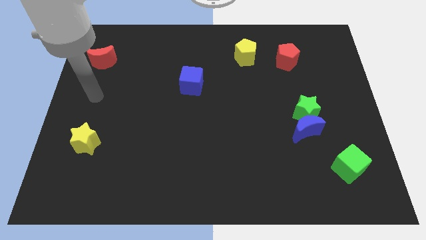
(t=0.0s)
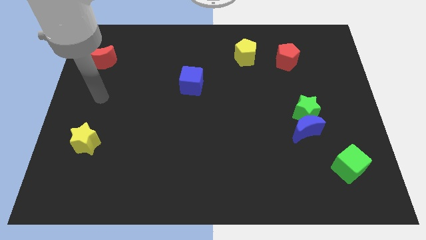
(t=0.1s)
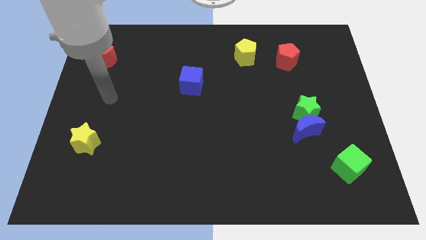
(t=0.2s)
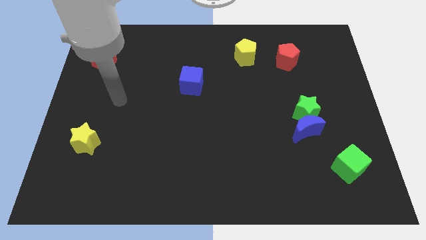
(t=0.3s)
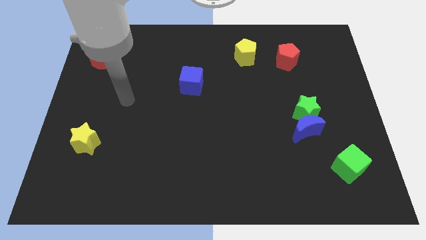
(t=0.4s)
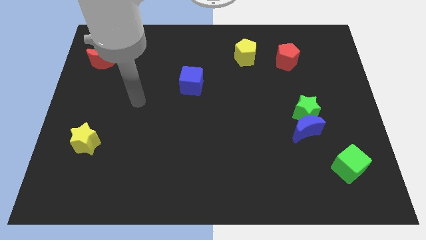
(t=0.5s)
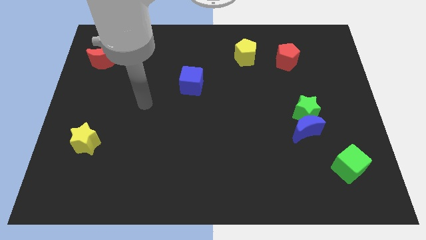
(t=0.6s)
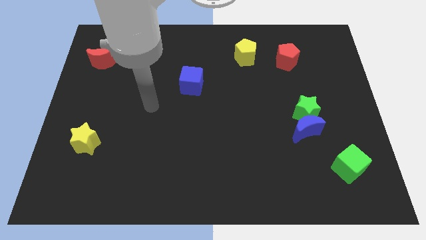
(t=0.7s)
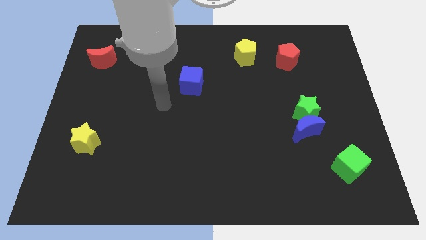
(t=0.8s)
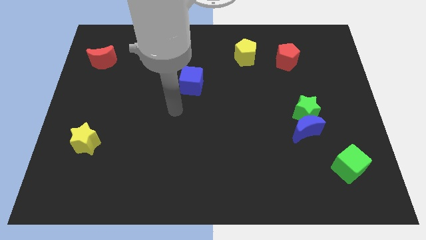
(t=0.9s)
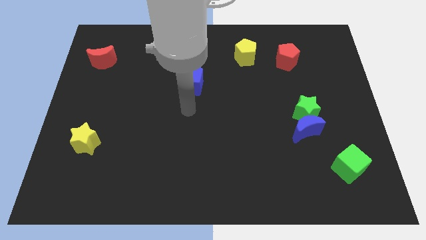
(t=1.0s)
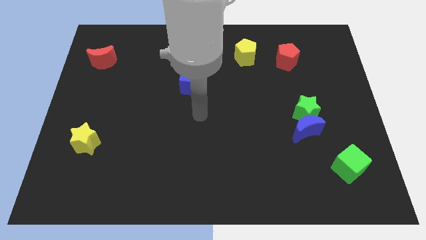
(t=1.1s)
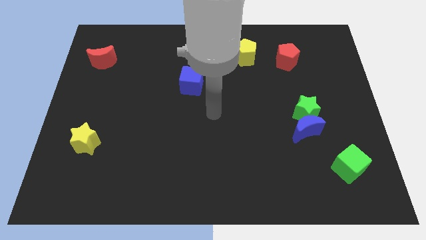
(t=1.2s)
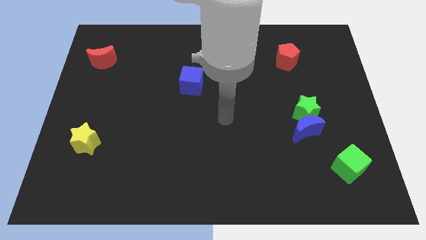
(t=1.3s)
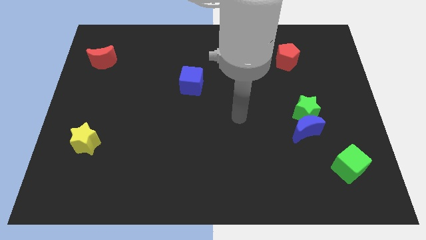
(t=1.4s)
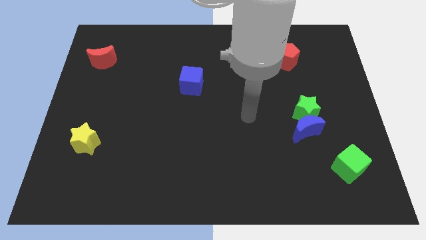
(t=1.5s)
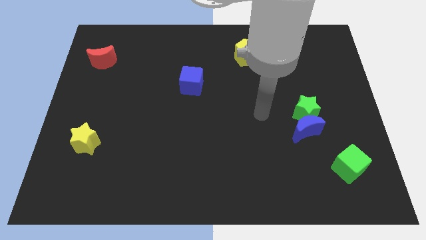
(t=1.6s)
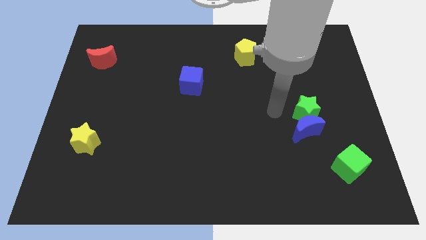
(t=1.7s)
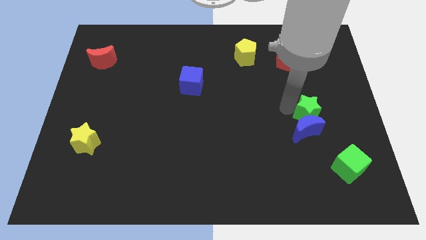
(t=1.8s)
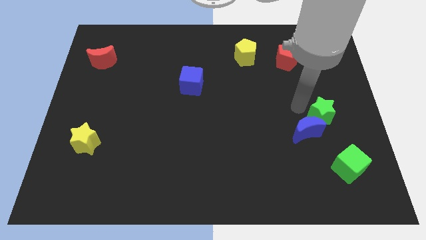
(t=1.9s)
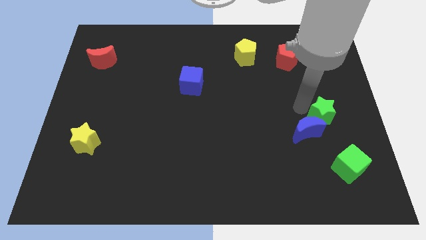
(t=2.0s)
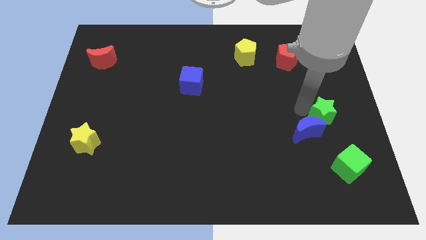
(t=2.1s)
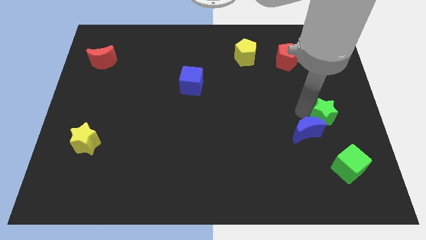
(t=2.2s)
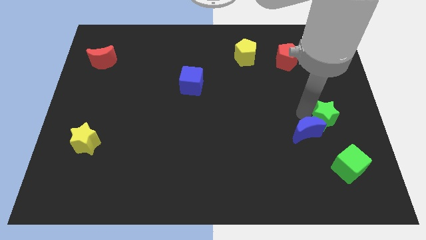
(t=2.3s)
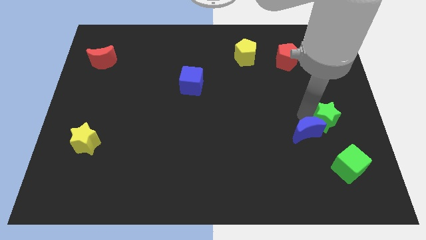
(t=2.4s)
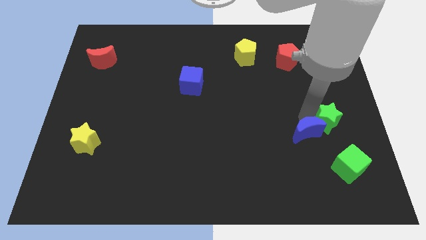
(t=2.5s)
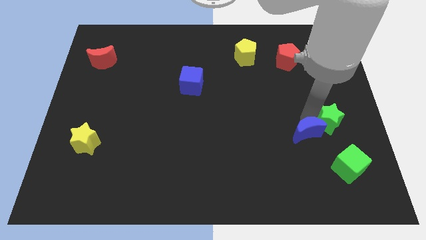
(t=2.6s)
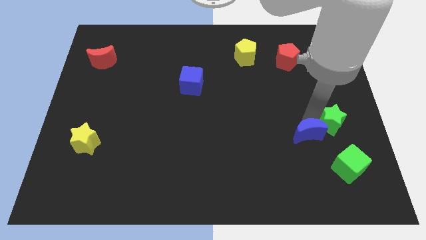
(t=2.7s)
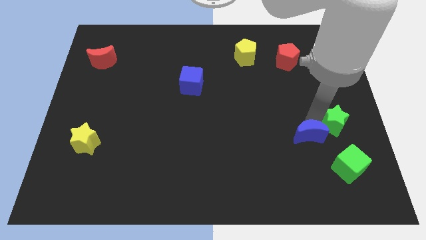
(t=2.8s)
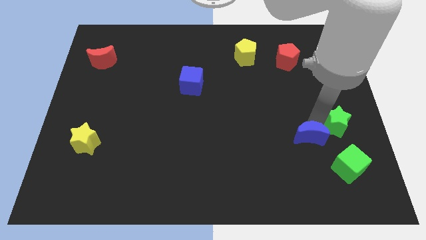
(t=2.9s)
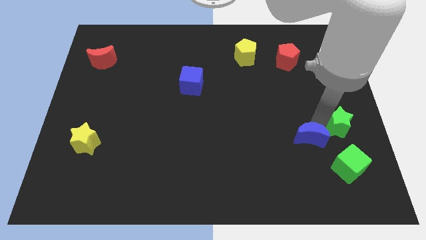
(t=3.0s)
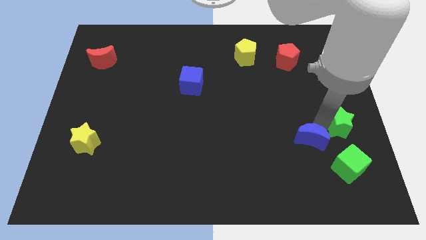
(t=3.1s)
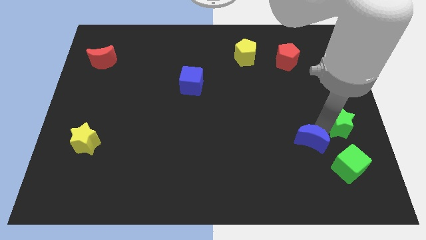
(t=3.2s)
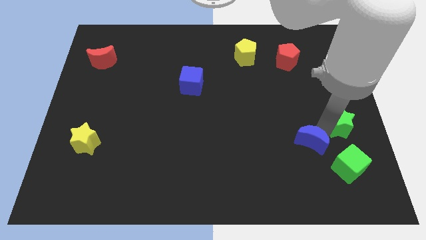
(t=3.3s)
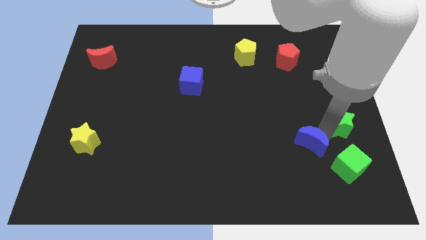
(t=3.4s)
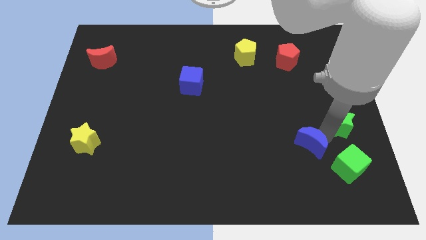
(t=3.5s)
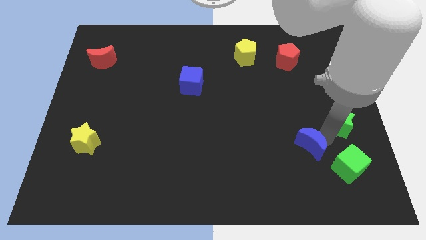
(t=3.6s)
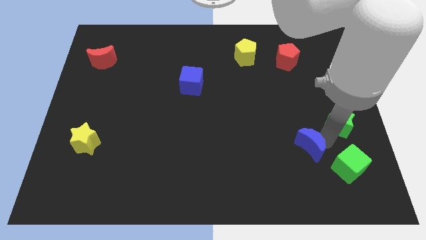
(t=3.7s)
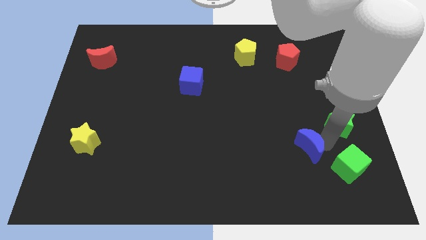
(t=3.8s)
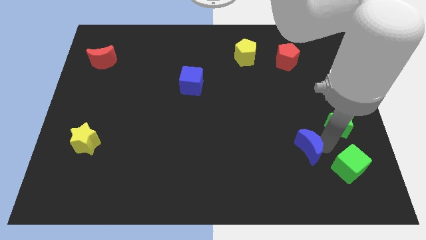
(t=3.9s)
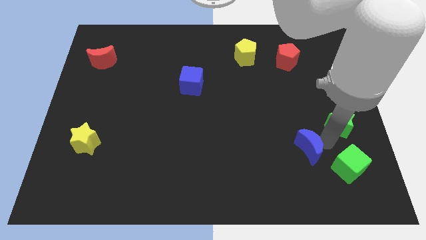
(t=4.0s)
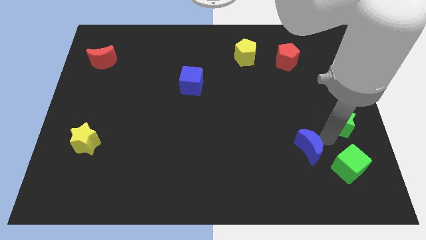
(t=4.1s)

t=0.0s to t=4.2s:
separate the blue moon from the green star

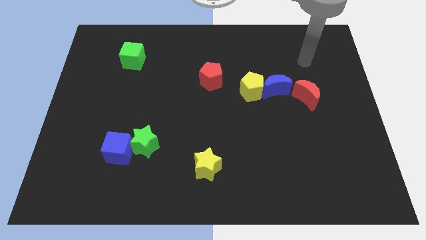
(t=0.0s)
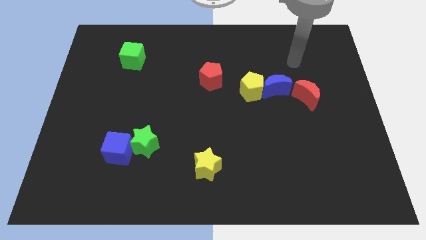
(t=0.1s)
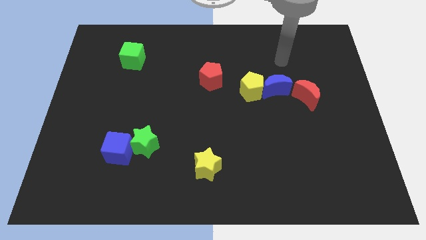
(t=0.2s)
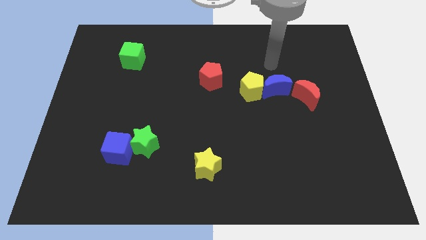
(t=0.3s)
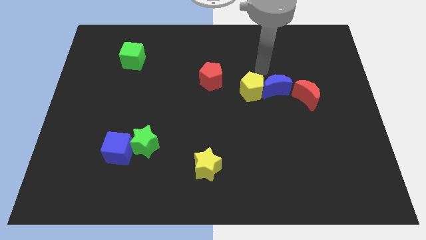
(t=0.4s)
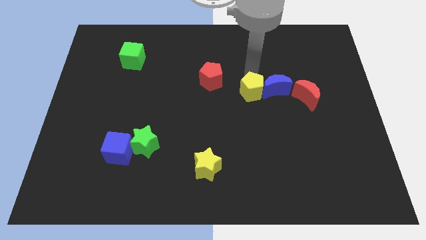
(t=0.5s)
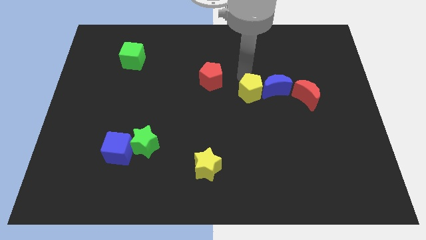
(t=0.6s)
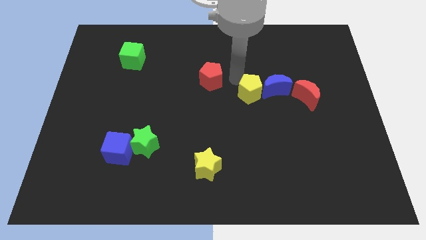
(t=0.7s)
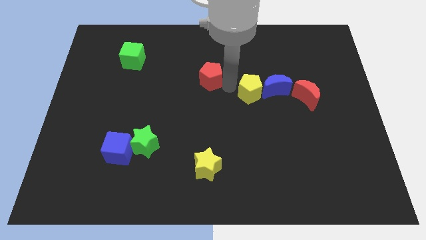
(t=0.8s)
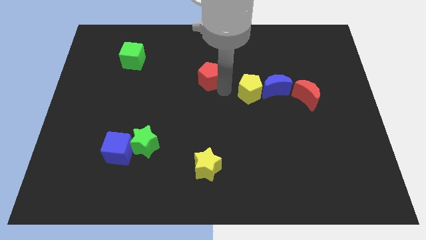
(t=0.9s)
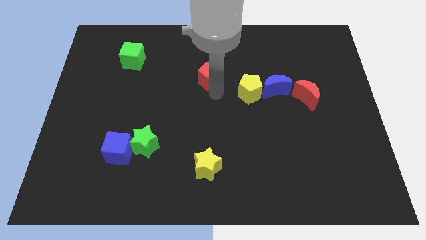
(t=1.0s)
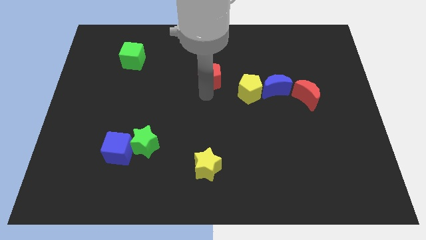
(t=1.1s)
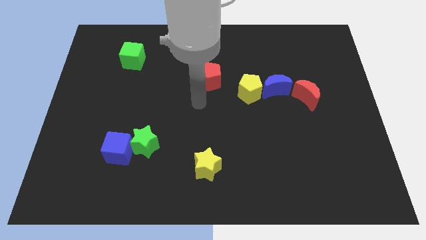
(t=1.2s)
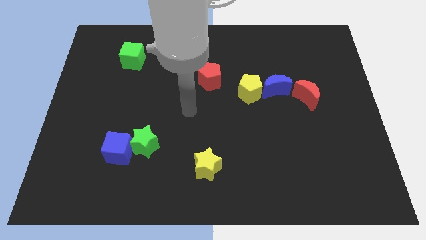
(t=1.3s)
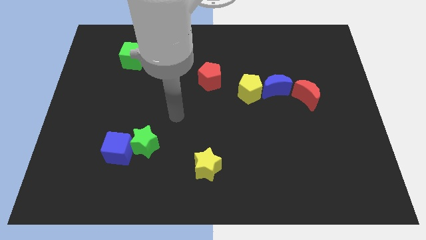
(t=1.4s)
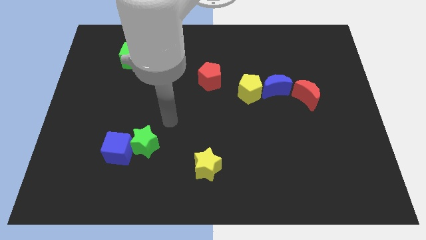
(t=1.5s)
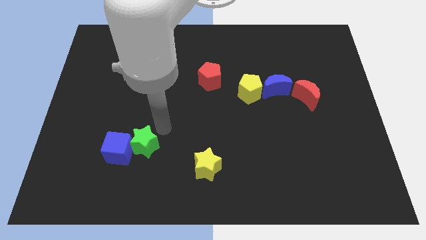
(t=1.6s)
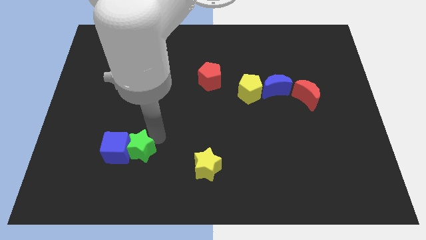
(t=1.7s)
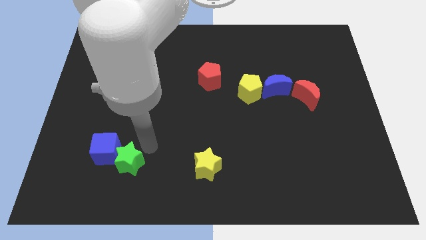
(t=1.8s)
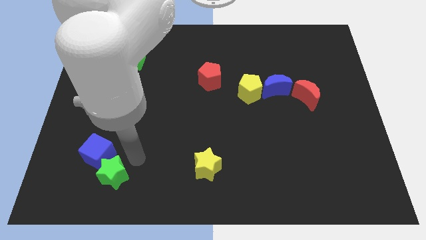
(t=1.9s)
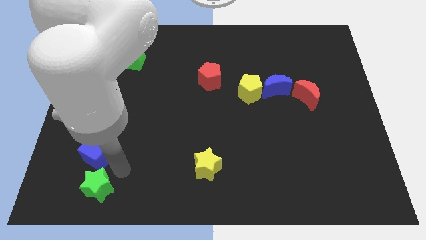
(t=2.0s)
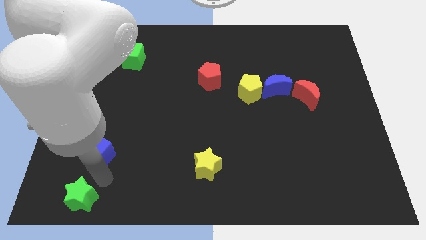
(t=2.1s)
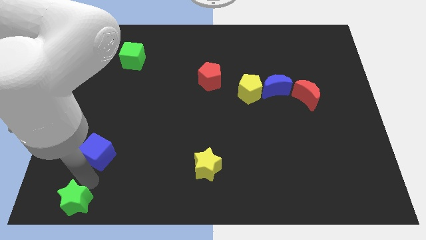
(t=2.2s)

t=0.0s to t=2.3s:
separate the blue cube from the green star

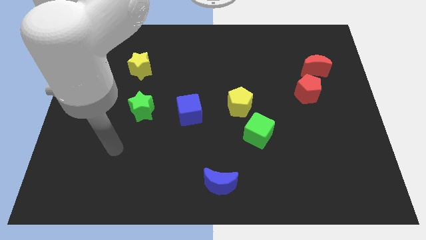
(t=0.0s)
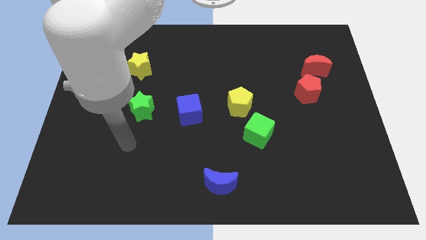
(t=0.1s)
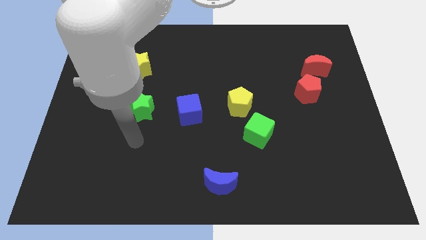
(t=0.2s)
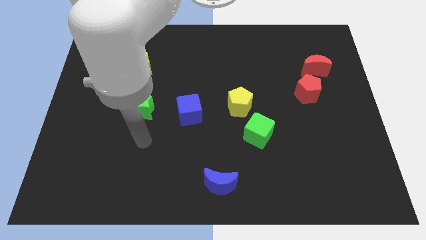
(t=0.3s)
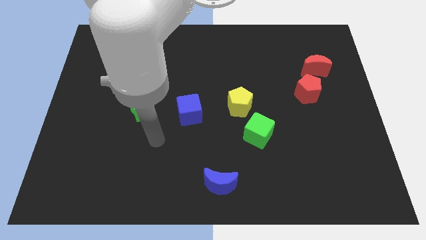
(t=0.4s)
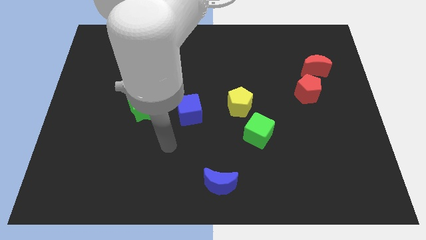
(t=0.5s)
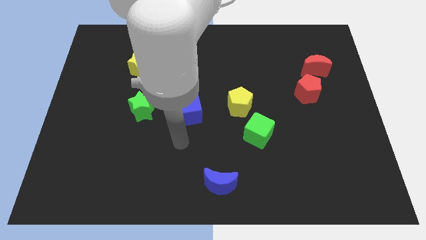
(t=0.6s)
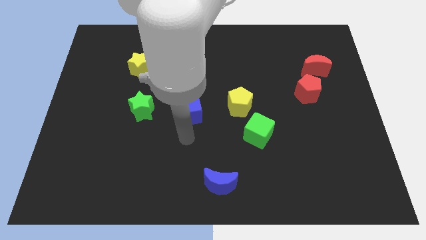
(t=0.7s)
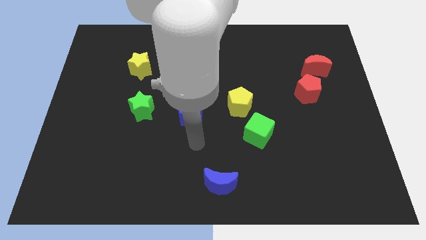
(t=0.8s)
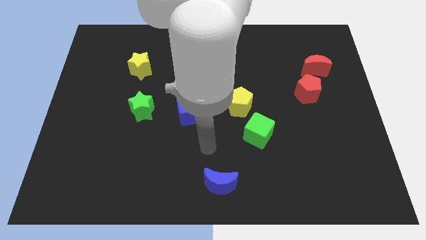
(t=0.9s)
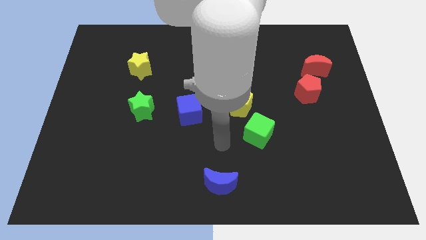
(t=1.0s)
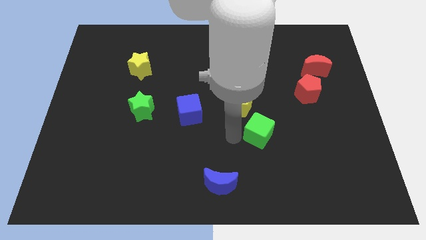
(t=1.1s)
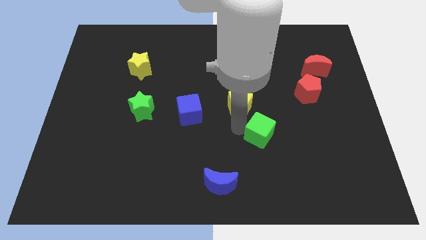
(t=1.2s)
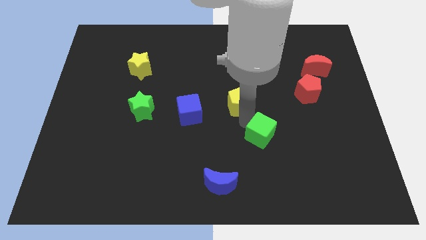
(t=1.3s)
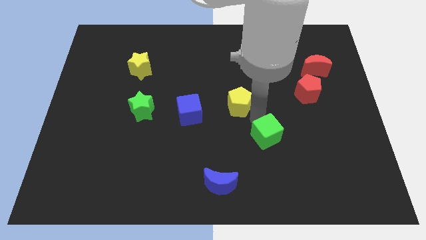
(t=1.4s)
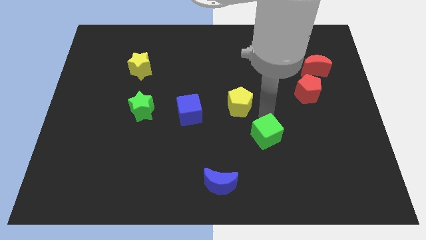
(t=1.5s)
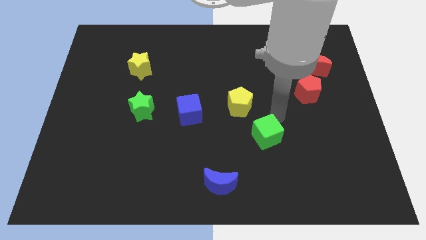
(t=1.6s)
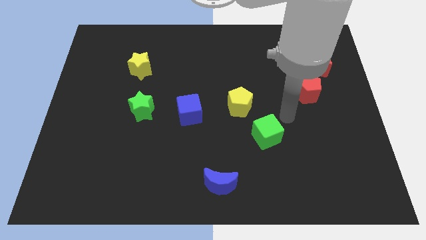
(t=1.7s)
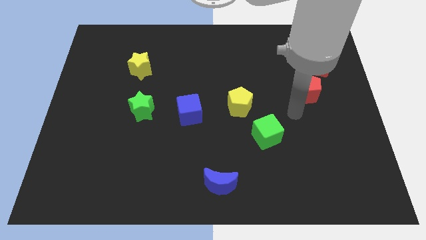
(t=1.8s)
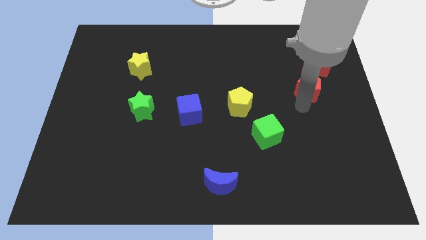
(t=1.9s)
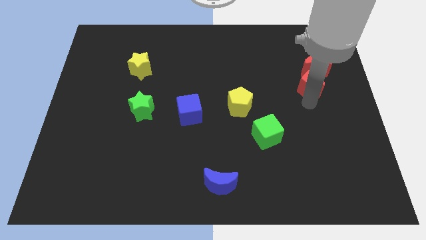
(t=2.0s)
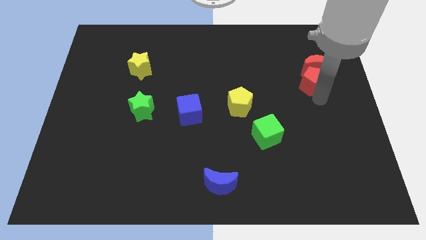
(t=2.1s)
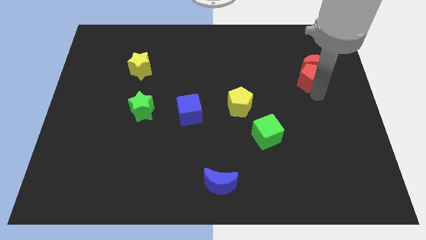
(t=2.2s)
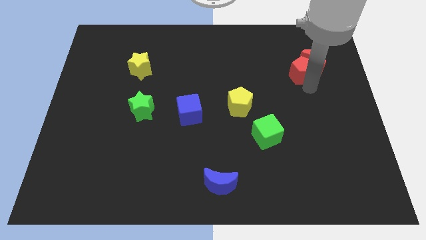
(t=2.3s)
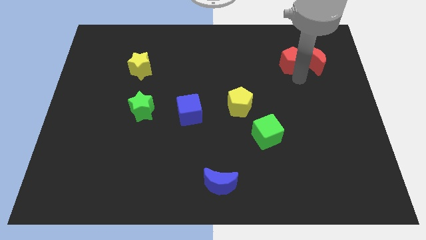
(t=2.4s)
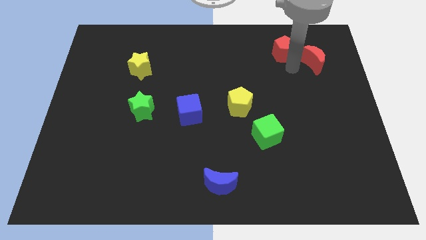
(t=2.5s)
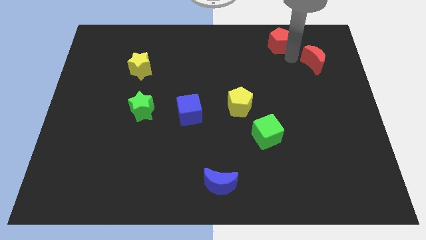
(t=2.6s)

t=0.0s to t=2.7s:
separate the red moon from the red pentagon

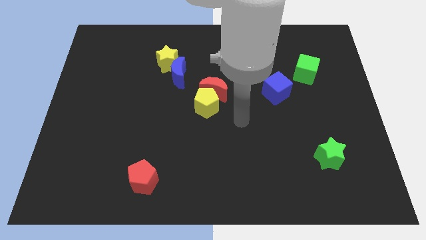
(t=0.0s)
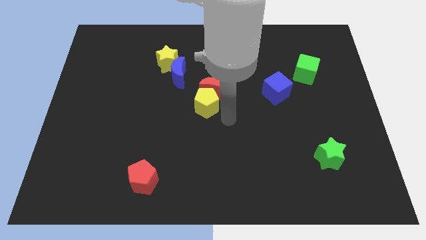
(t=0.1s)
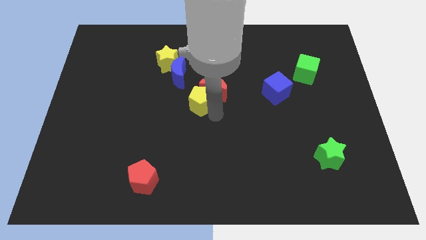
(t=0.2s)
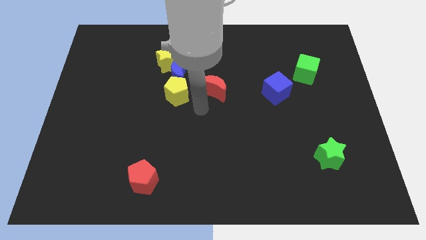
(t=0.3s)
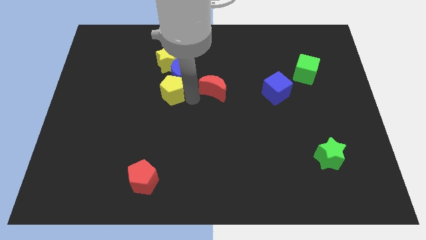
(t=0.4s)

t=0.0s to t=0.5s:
pull the red moon apart from the yellow pentagon
